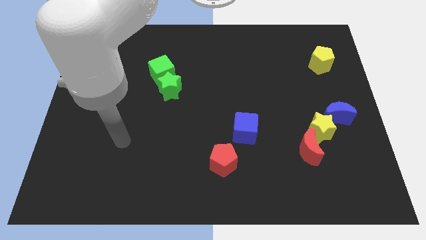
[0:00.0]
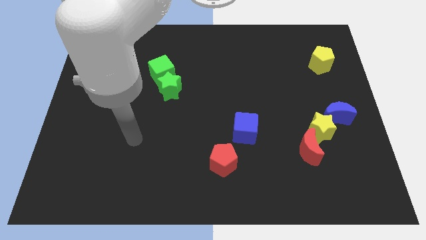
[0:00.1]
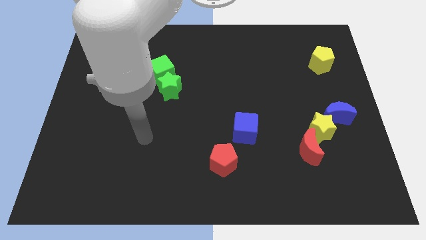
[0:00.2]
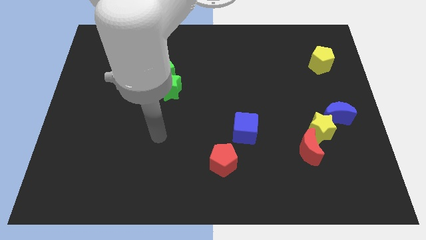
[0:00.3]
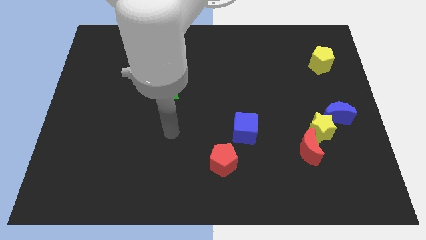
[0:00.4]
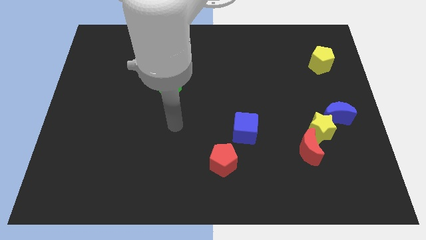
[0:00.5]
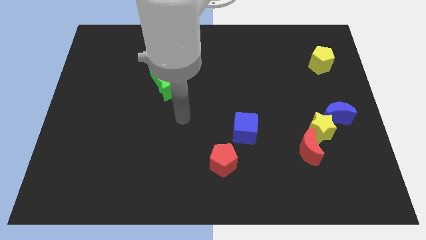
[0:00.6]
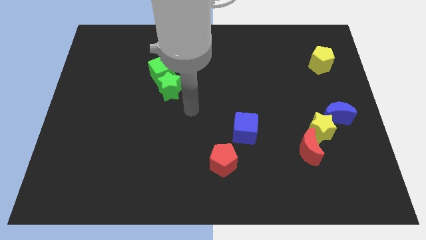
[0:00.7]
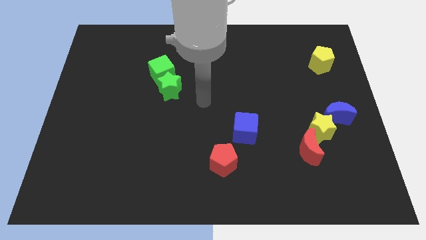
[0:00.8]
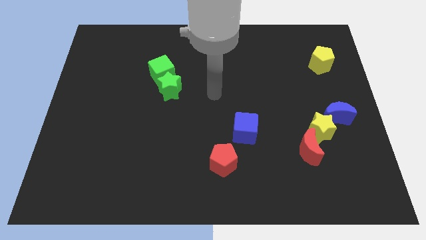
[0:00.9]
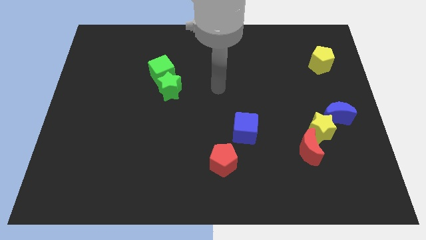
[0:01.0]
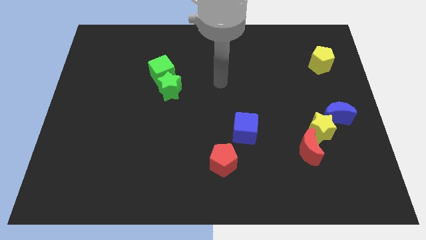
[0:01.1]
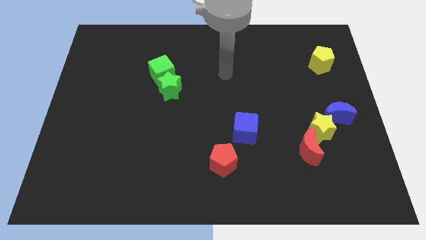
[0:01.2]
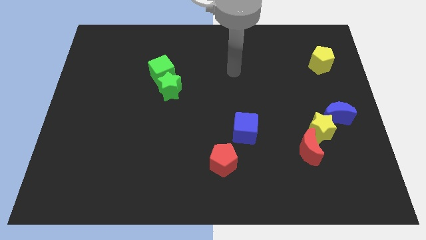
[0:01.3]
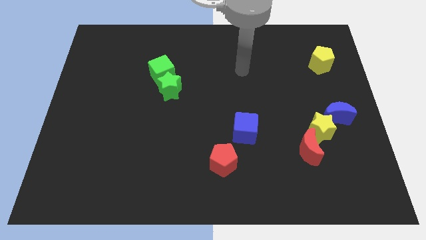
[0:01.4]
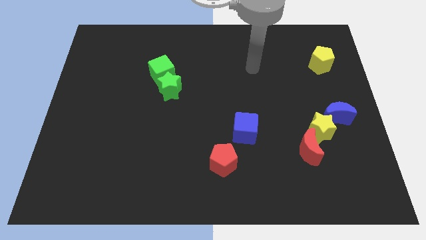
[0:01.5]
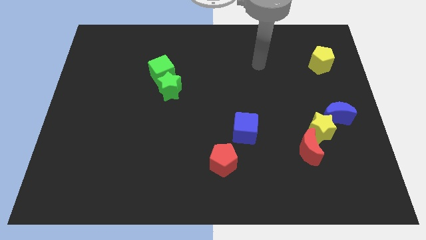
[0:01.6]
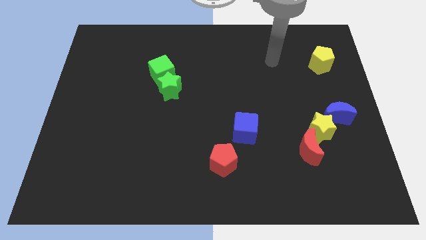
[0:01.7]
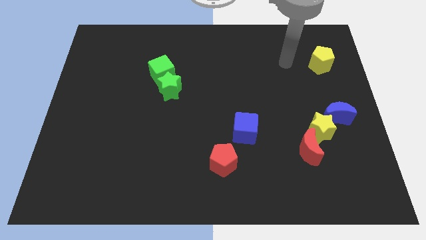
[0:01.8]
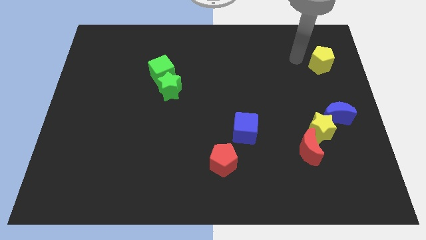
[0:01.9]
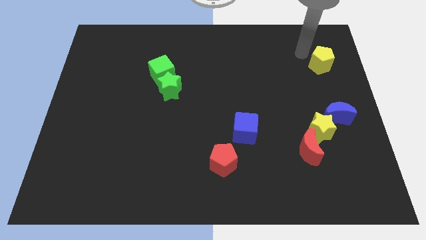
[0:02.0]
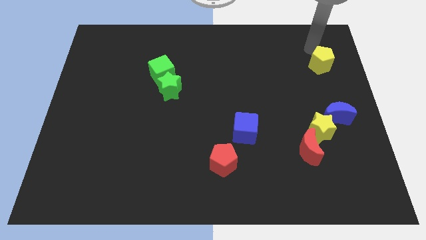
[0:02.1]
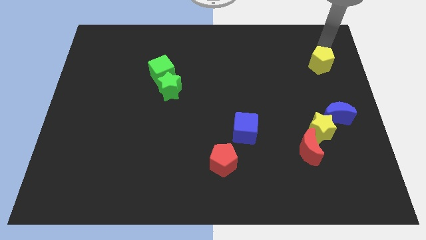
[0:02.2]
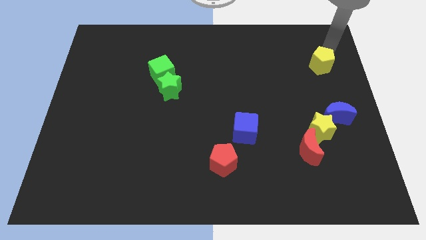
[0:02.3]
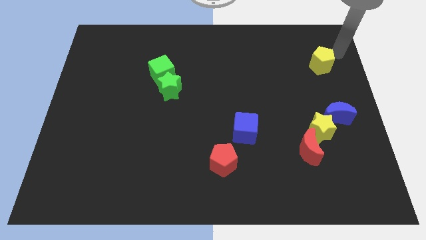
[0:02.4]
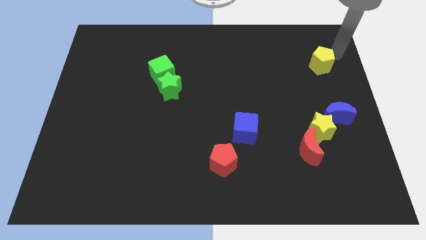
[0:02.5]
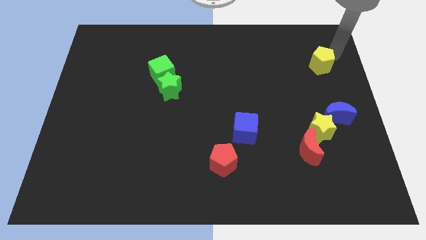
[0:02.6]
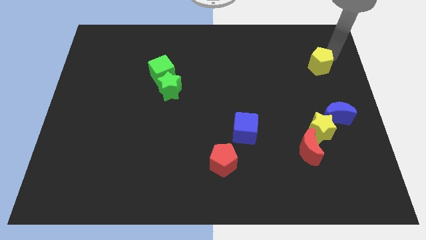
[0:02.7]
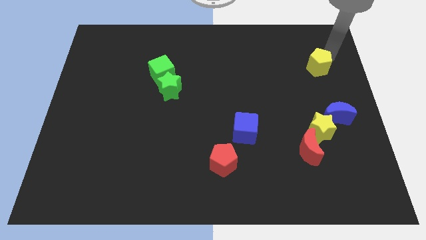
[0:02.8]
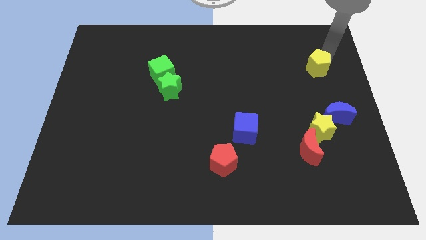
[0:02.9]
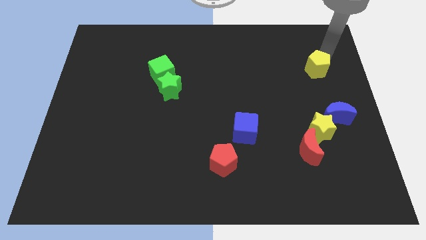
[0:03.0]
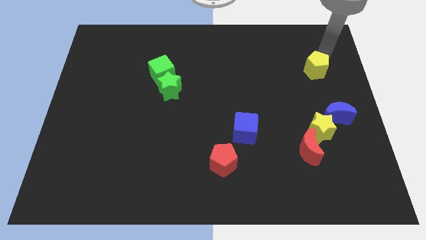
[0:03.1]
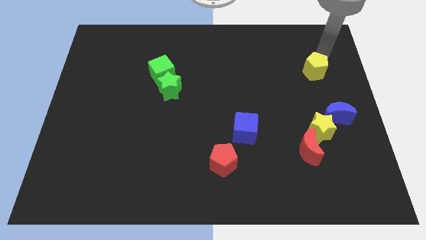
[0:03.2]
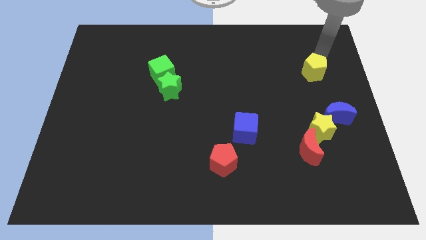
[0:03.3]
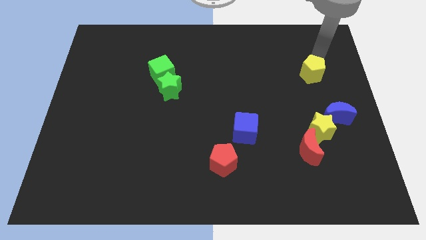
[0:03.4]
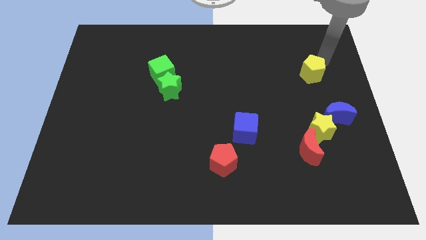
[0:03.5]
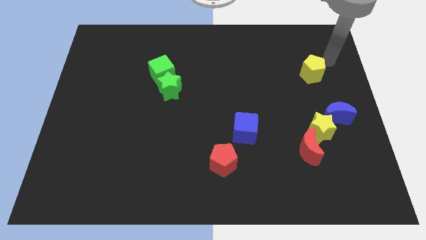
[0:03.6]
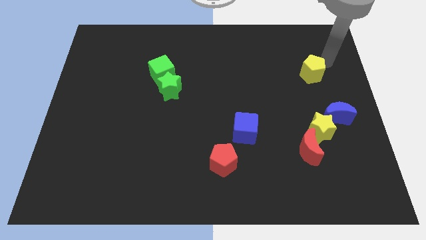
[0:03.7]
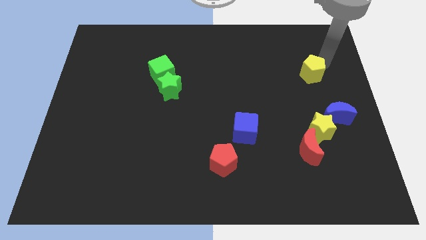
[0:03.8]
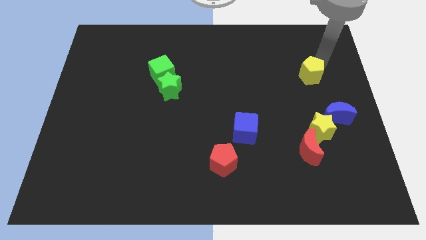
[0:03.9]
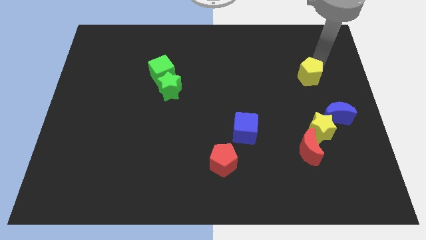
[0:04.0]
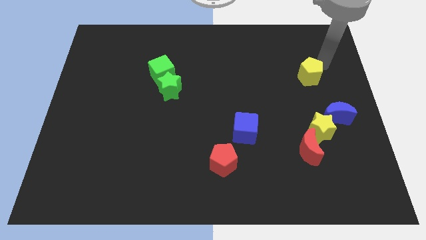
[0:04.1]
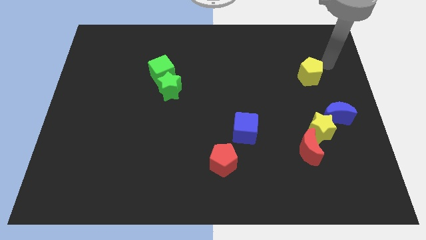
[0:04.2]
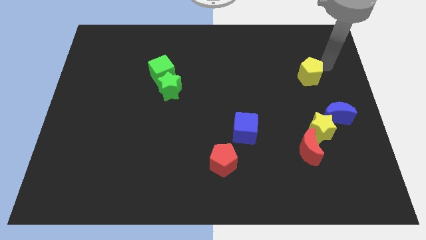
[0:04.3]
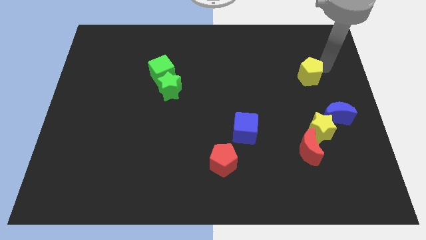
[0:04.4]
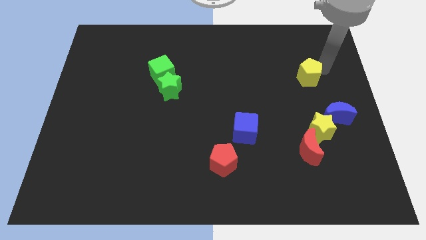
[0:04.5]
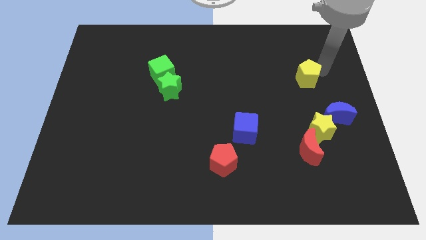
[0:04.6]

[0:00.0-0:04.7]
slide the yellow pentagon down and then to the left slightly

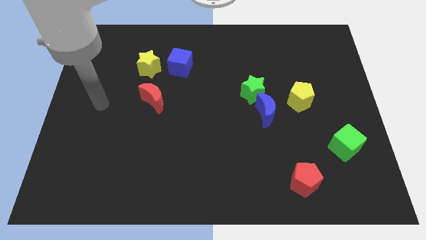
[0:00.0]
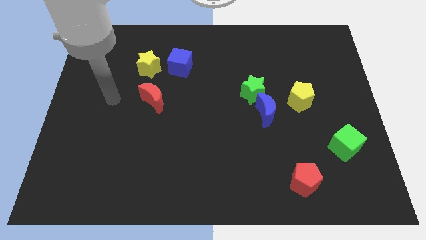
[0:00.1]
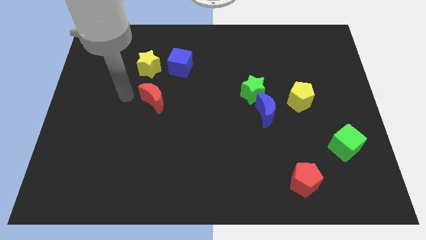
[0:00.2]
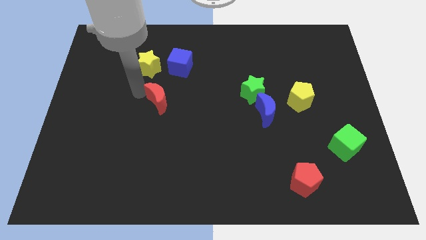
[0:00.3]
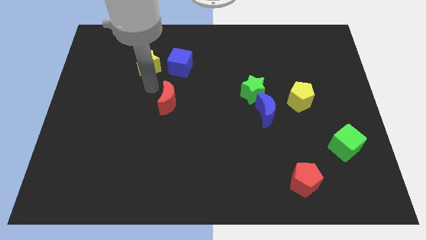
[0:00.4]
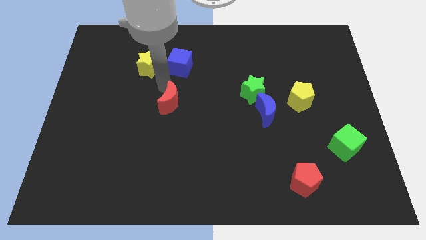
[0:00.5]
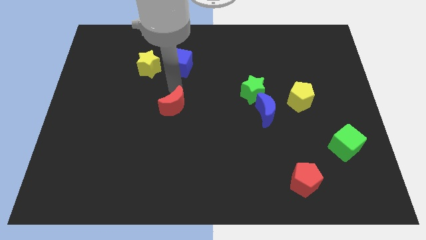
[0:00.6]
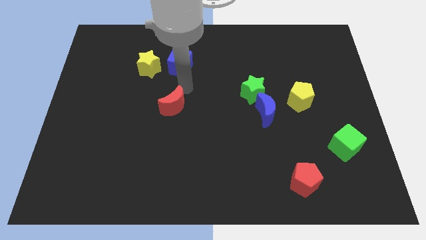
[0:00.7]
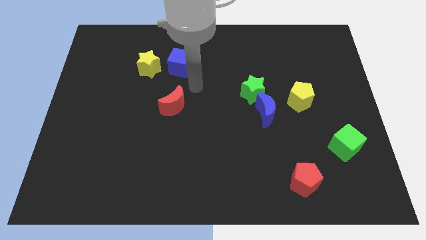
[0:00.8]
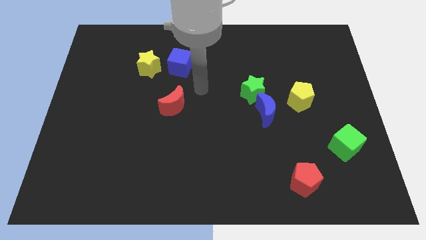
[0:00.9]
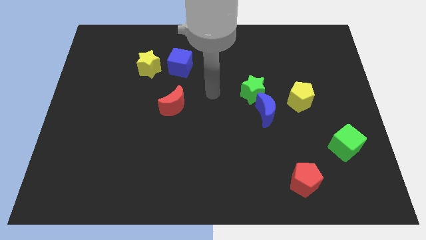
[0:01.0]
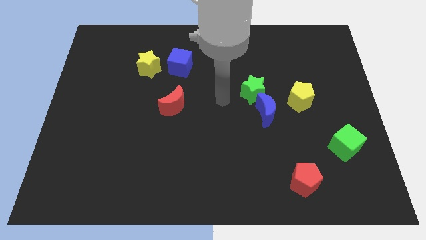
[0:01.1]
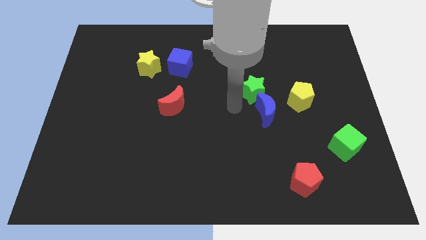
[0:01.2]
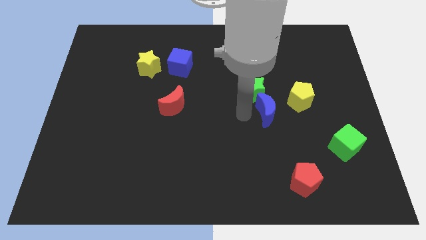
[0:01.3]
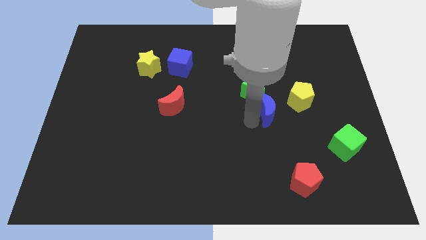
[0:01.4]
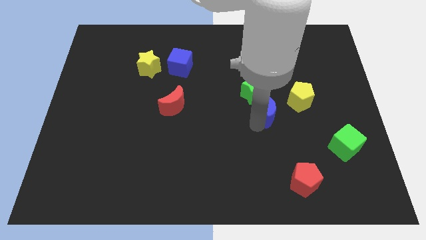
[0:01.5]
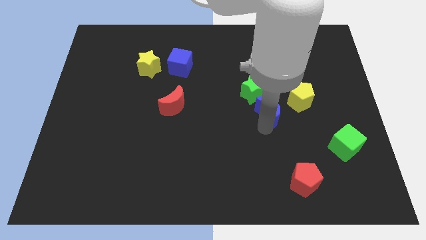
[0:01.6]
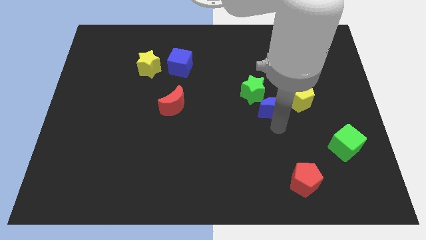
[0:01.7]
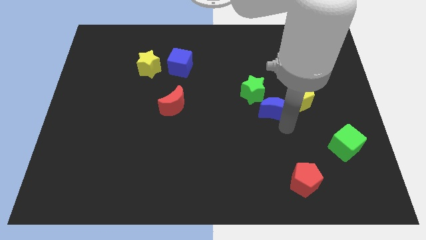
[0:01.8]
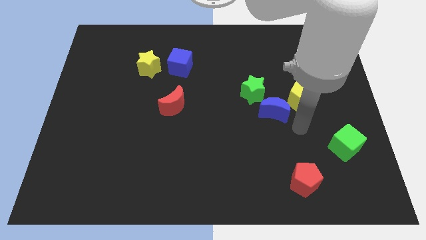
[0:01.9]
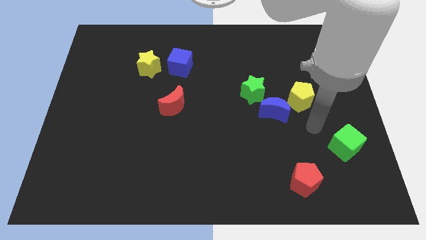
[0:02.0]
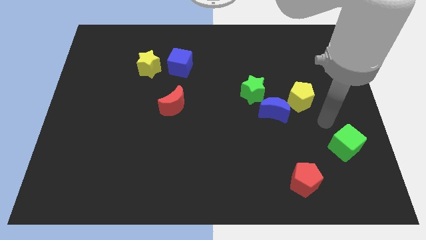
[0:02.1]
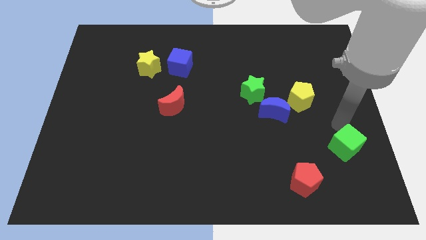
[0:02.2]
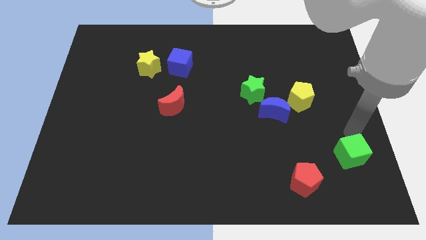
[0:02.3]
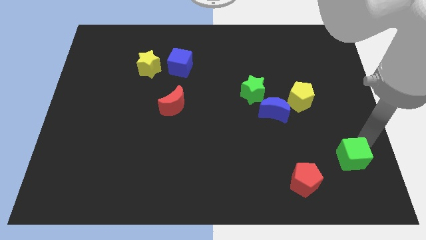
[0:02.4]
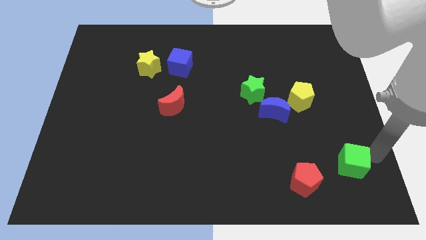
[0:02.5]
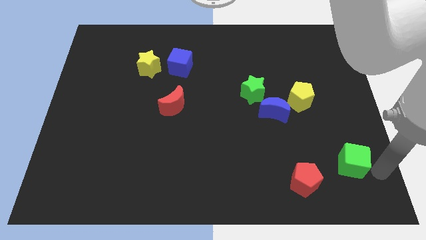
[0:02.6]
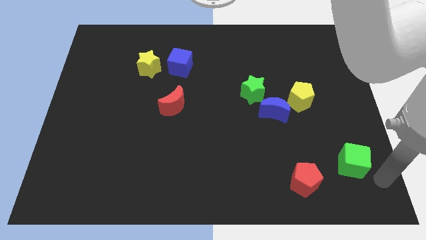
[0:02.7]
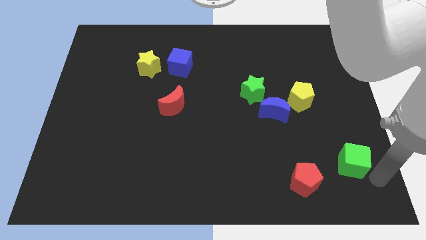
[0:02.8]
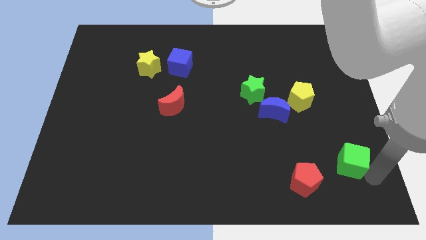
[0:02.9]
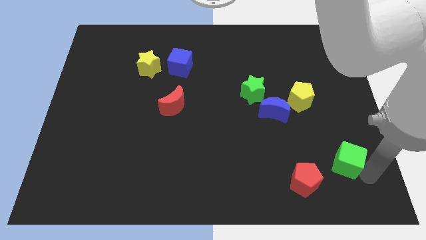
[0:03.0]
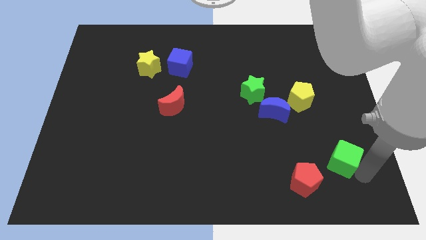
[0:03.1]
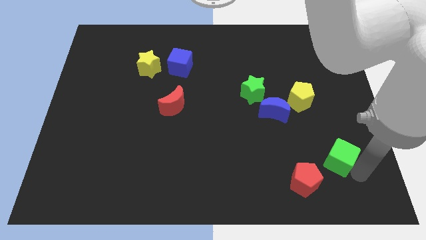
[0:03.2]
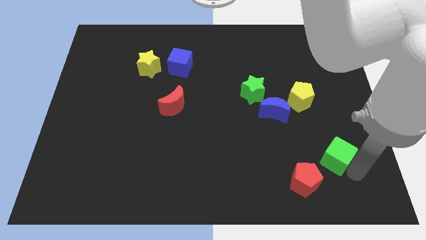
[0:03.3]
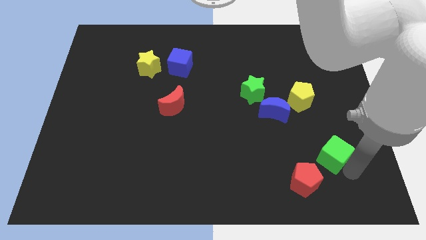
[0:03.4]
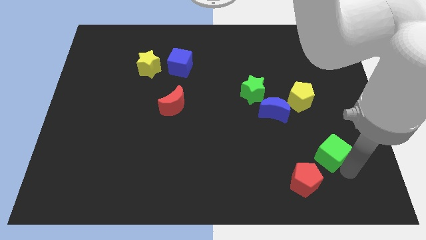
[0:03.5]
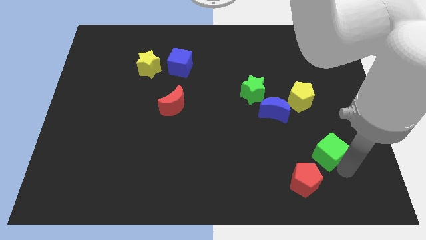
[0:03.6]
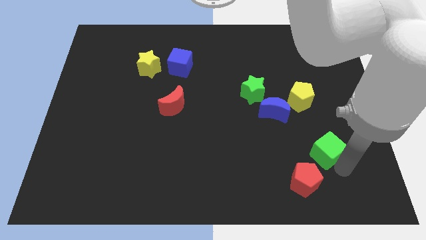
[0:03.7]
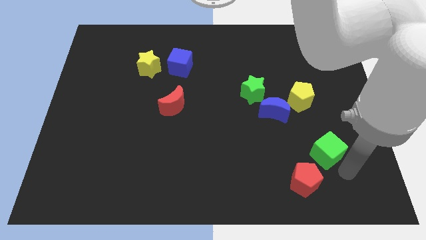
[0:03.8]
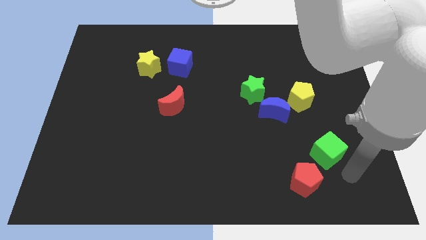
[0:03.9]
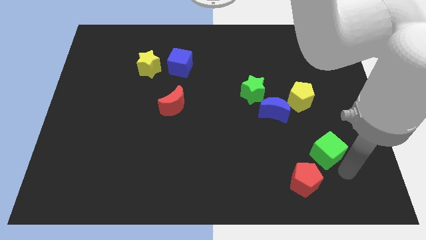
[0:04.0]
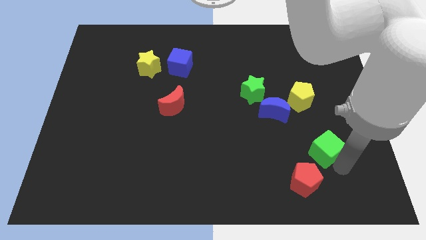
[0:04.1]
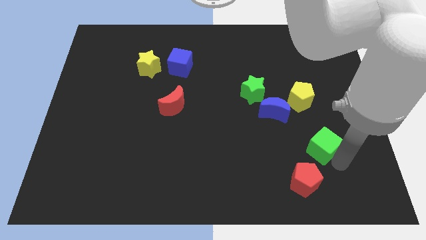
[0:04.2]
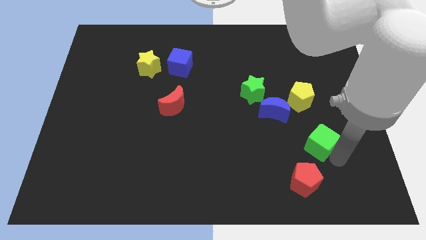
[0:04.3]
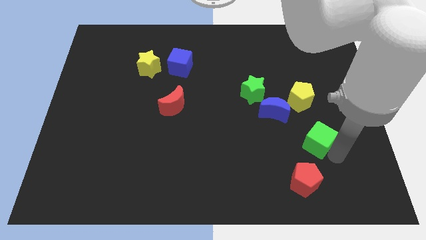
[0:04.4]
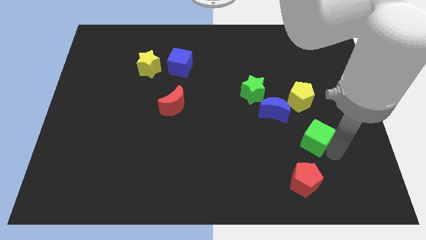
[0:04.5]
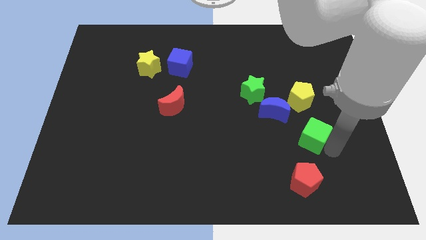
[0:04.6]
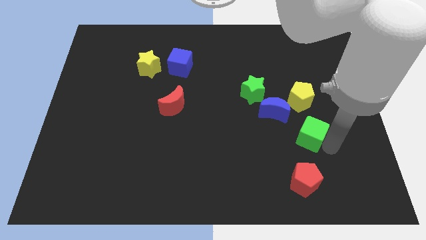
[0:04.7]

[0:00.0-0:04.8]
move the green cube left a little bit
